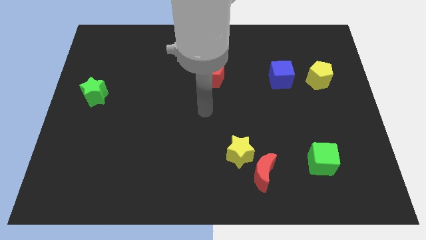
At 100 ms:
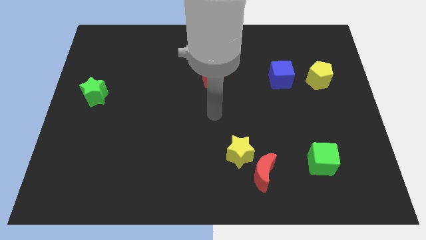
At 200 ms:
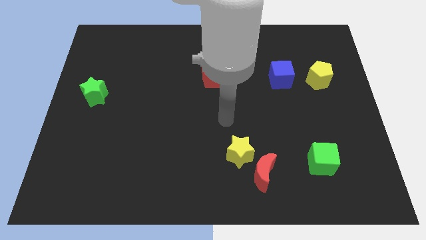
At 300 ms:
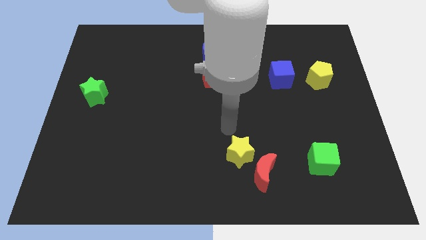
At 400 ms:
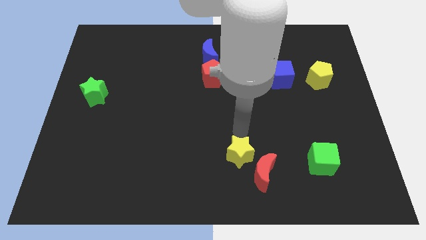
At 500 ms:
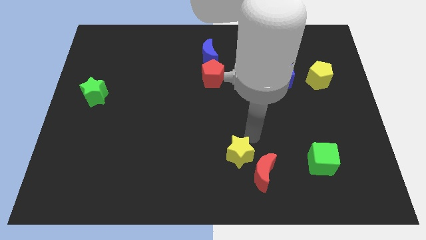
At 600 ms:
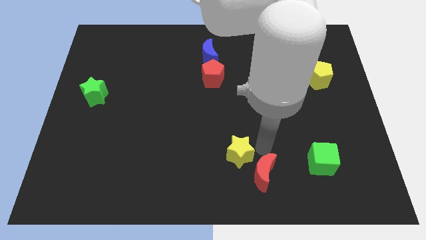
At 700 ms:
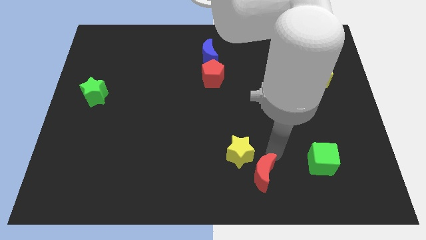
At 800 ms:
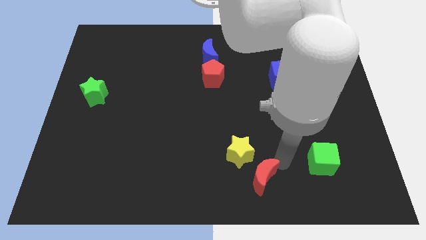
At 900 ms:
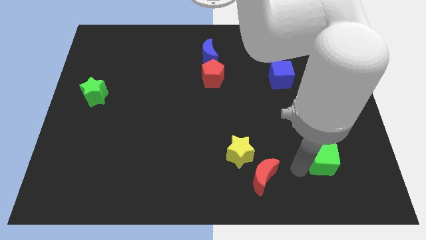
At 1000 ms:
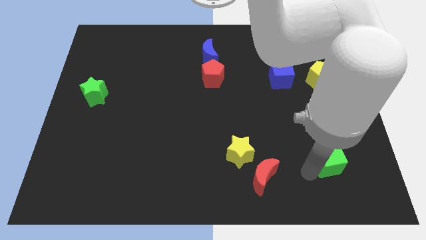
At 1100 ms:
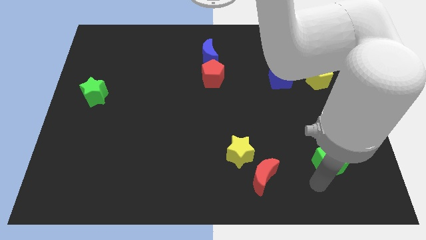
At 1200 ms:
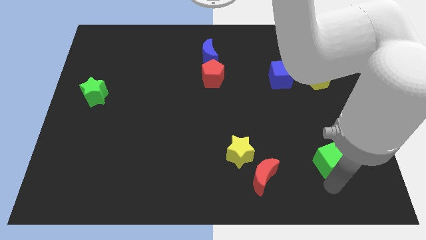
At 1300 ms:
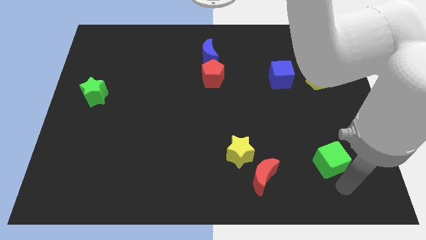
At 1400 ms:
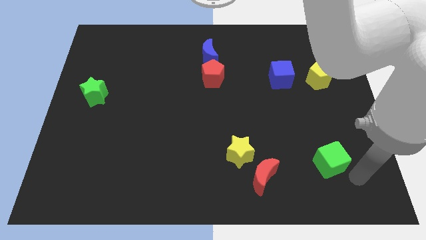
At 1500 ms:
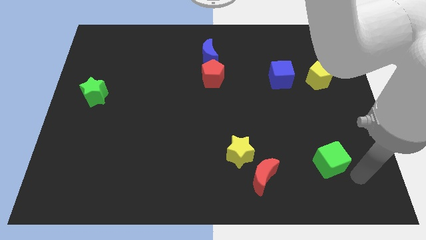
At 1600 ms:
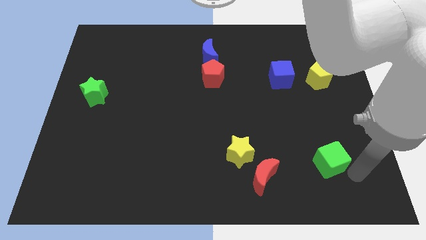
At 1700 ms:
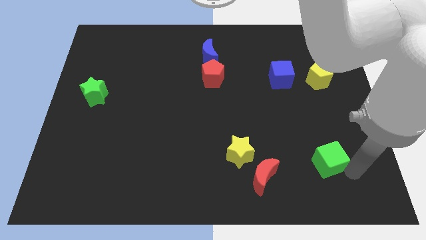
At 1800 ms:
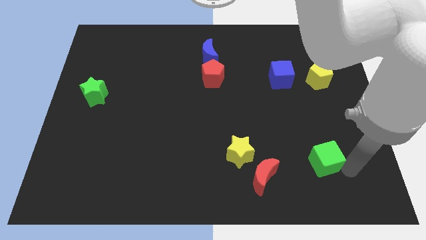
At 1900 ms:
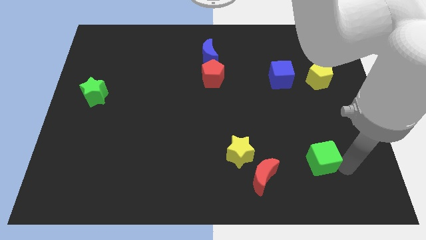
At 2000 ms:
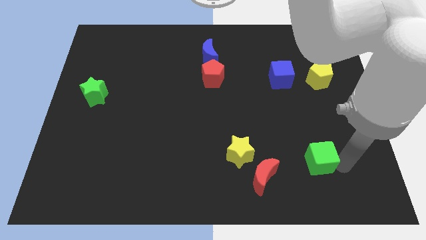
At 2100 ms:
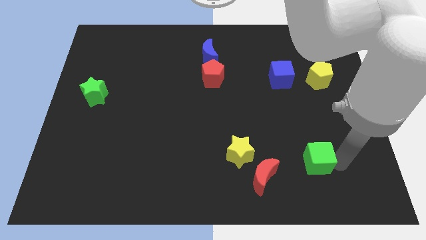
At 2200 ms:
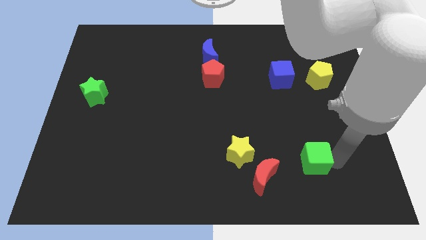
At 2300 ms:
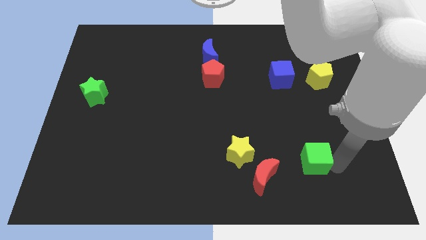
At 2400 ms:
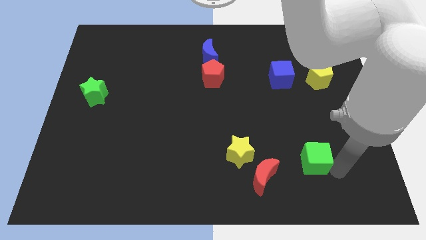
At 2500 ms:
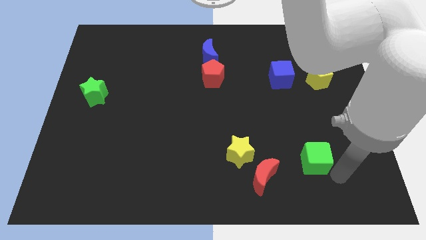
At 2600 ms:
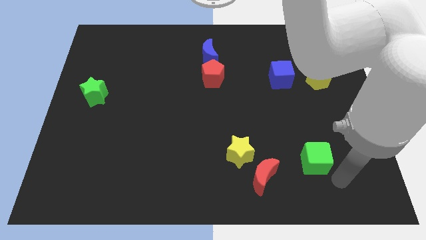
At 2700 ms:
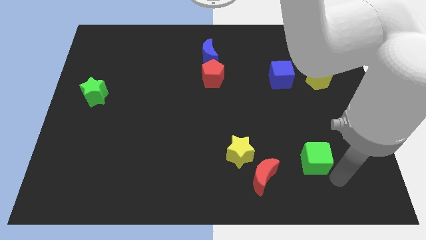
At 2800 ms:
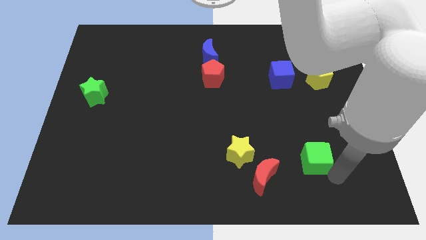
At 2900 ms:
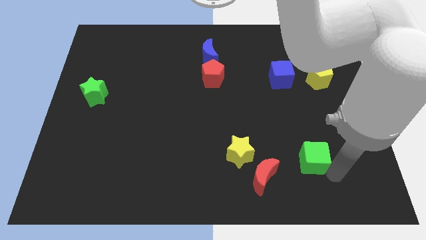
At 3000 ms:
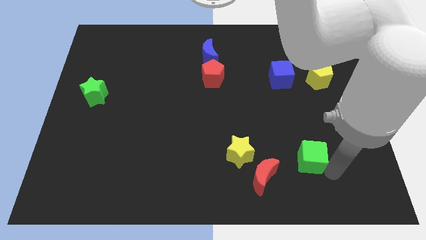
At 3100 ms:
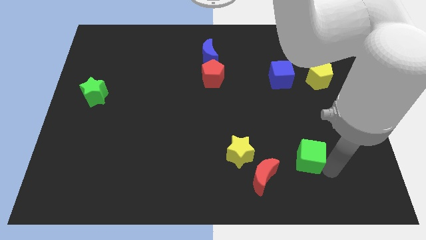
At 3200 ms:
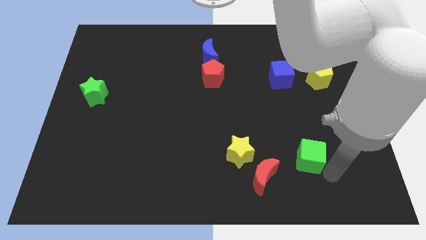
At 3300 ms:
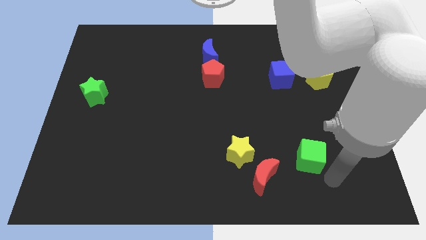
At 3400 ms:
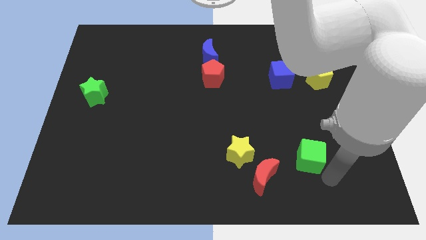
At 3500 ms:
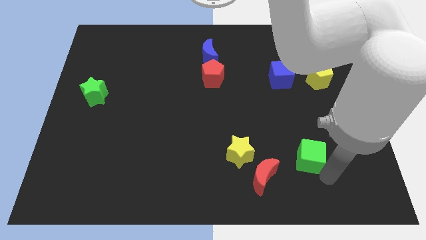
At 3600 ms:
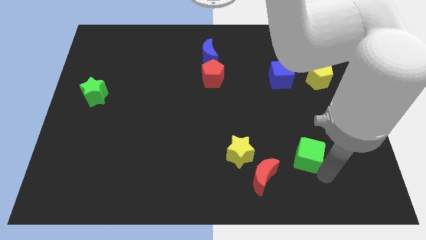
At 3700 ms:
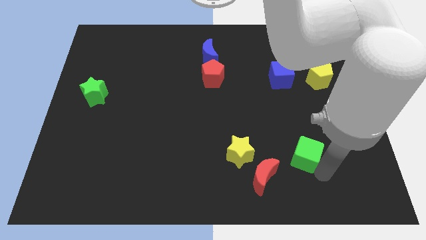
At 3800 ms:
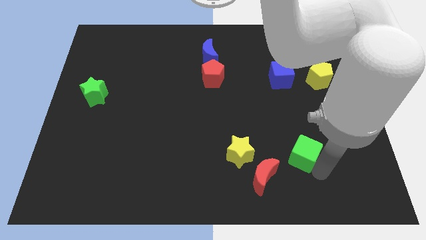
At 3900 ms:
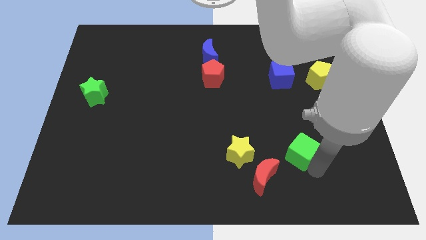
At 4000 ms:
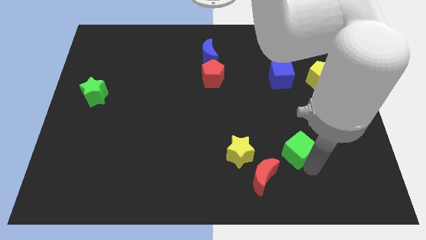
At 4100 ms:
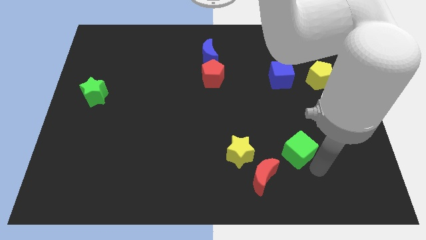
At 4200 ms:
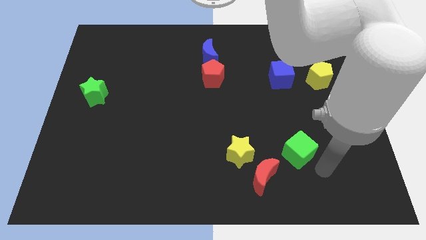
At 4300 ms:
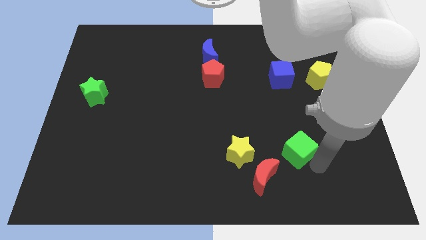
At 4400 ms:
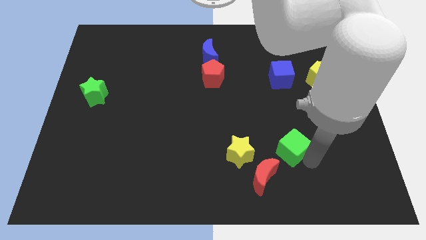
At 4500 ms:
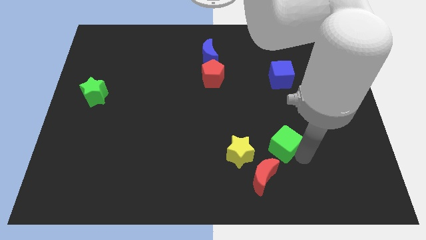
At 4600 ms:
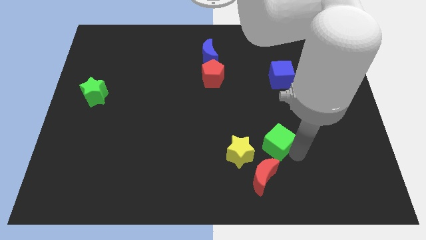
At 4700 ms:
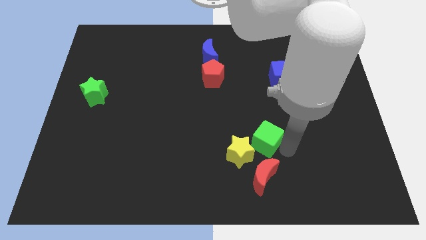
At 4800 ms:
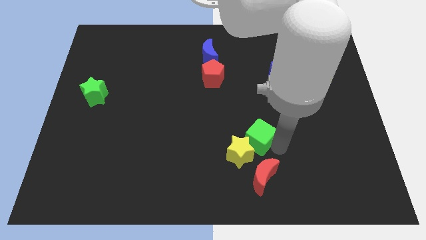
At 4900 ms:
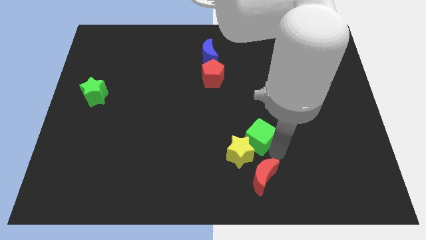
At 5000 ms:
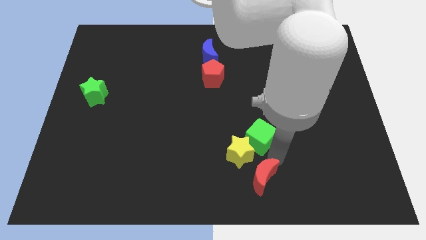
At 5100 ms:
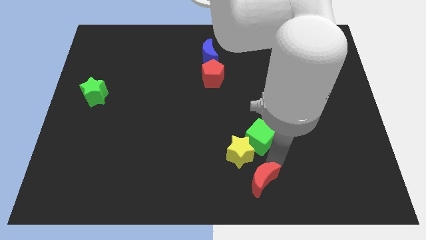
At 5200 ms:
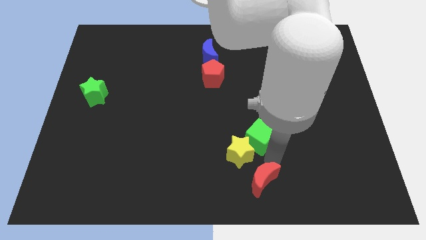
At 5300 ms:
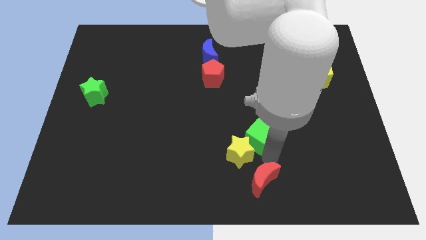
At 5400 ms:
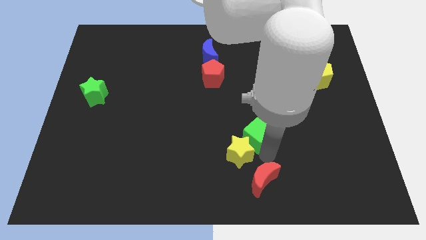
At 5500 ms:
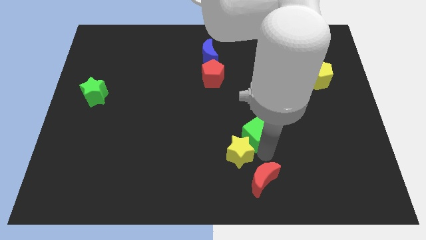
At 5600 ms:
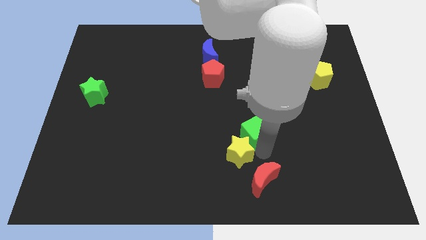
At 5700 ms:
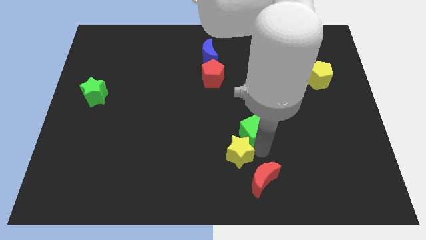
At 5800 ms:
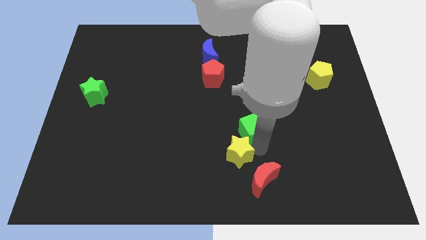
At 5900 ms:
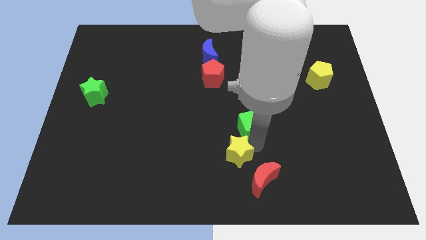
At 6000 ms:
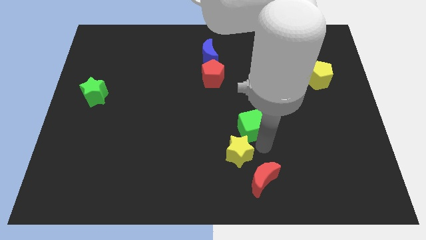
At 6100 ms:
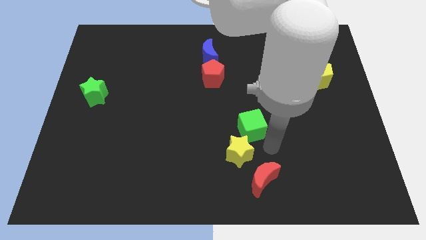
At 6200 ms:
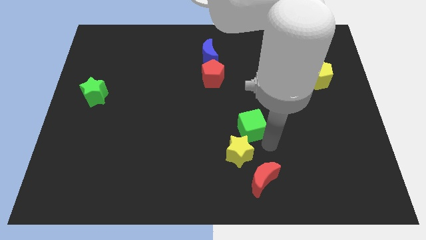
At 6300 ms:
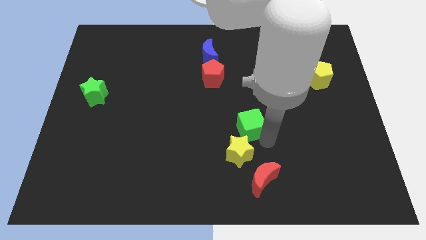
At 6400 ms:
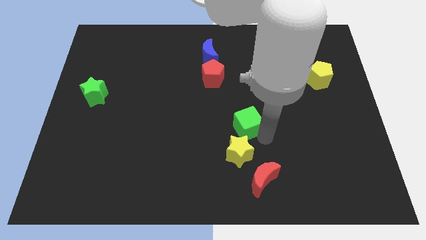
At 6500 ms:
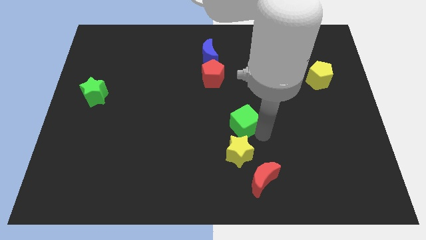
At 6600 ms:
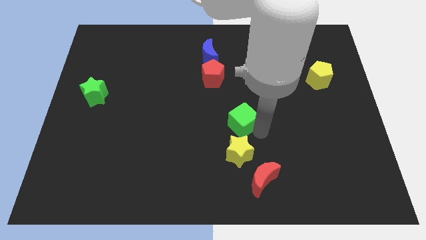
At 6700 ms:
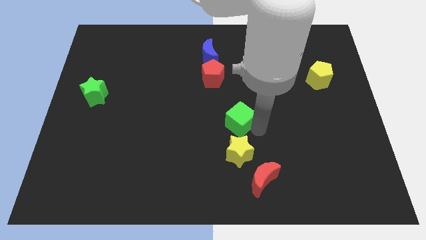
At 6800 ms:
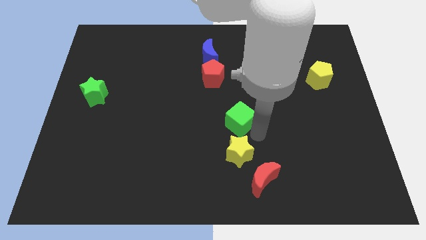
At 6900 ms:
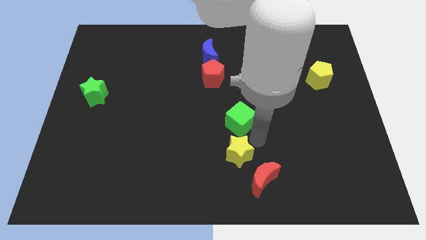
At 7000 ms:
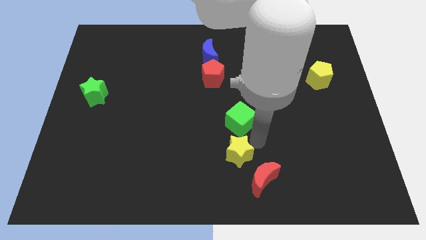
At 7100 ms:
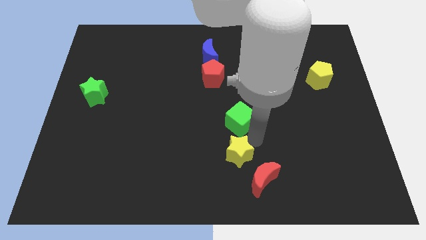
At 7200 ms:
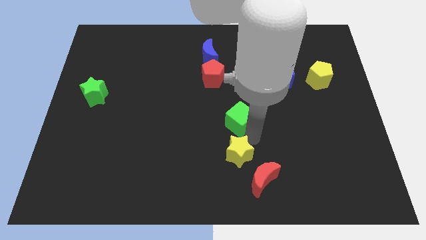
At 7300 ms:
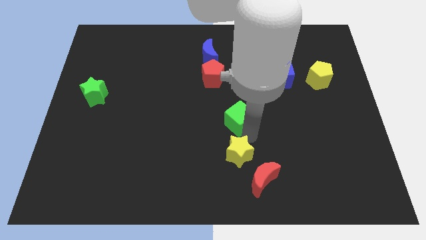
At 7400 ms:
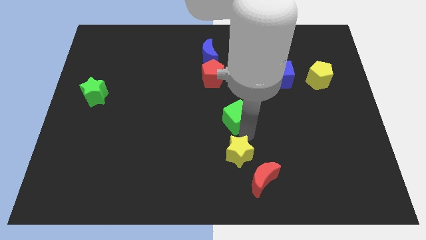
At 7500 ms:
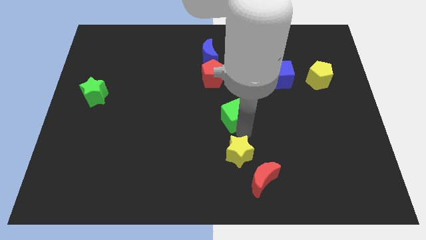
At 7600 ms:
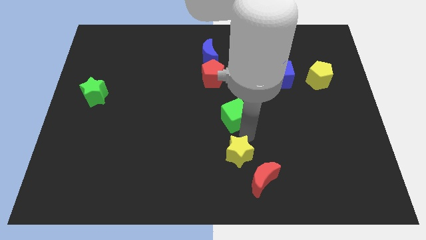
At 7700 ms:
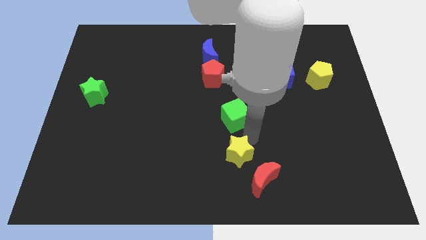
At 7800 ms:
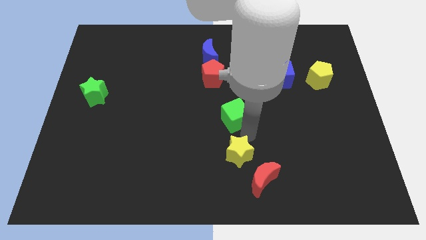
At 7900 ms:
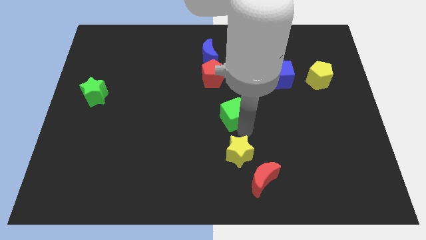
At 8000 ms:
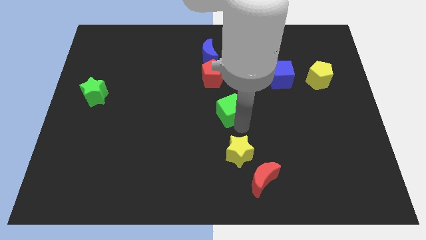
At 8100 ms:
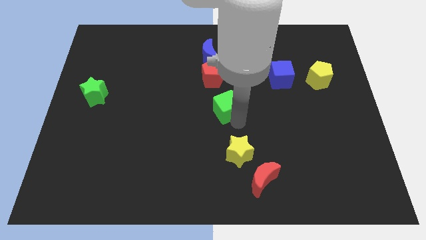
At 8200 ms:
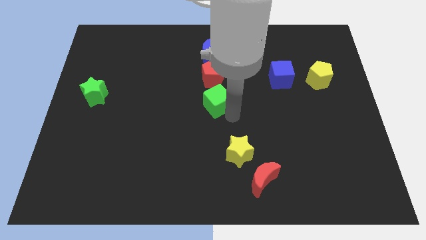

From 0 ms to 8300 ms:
slide the green cube to the bottom side of the blue moon
